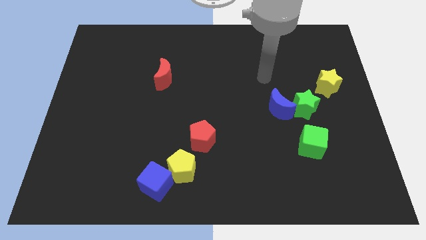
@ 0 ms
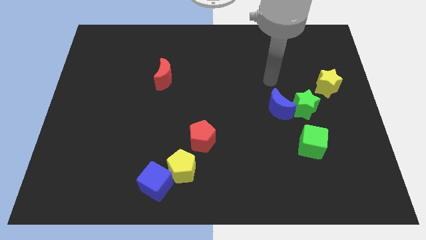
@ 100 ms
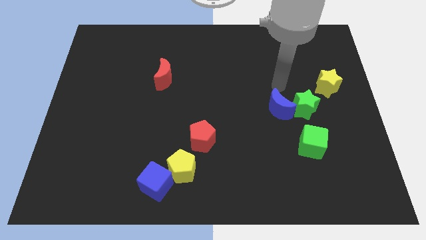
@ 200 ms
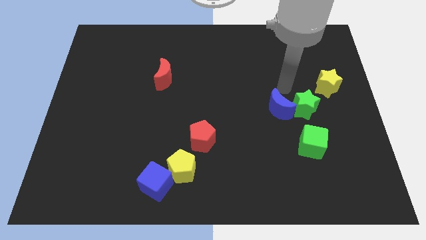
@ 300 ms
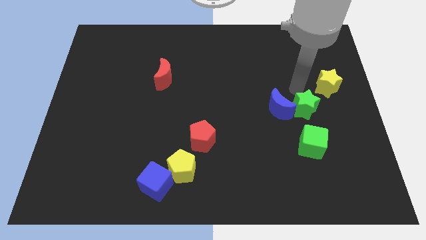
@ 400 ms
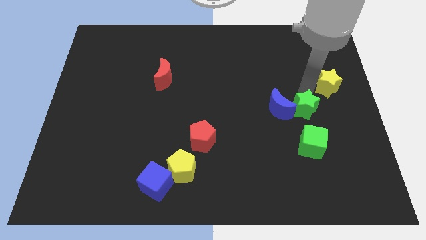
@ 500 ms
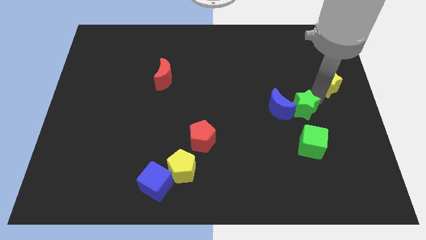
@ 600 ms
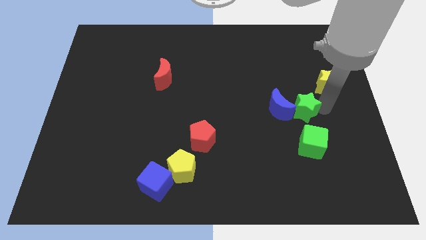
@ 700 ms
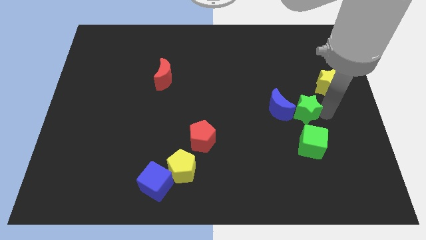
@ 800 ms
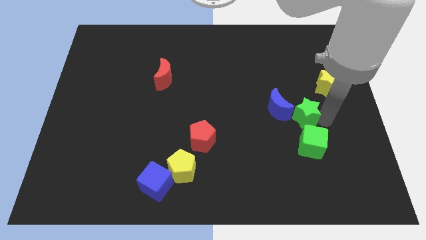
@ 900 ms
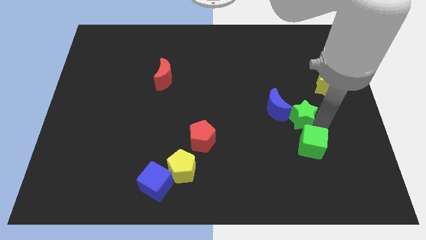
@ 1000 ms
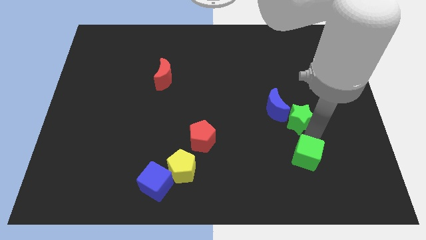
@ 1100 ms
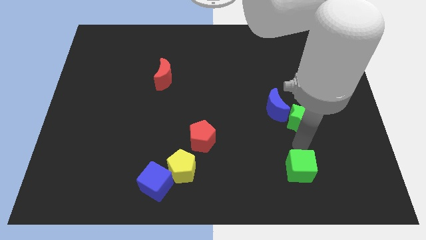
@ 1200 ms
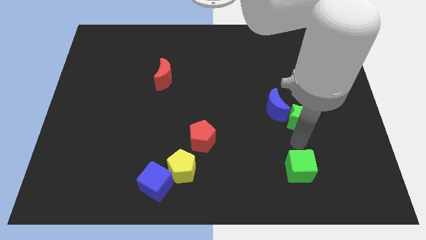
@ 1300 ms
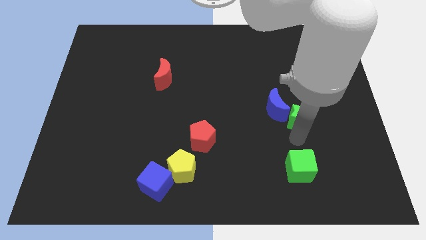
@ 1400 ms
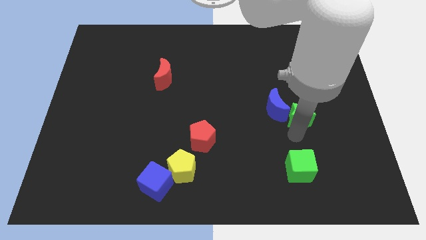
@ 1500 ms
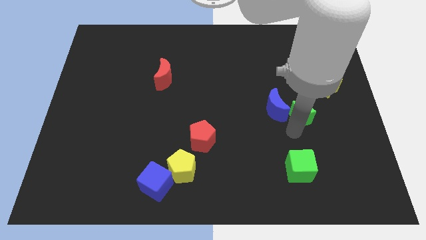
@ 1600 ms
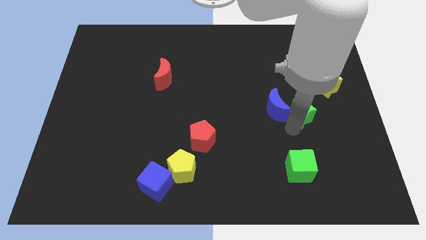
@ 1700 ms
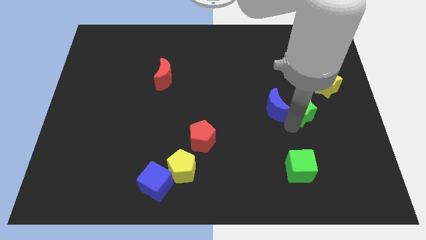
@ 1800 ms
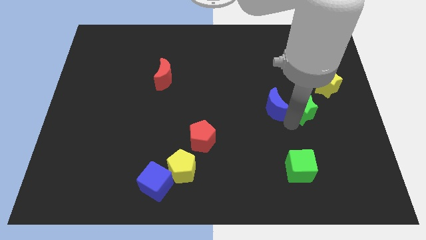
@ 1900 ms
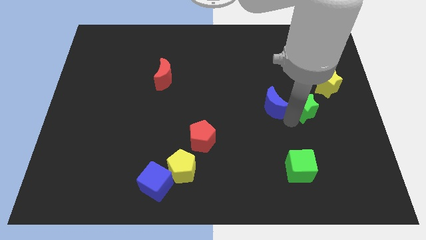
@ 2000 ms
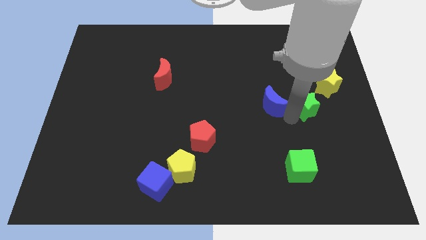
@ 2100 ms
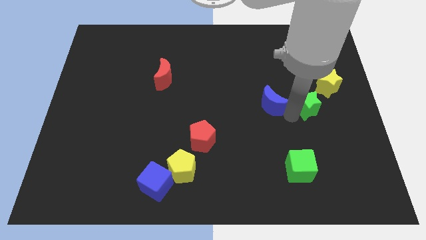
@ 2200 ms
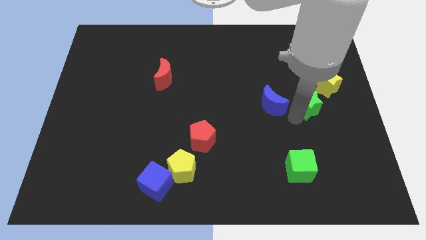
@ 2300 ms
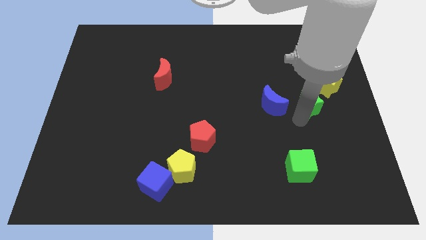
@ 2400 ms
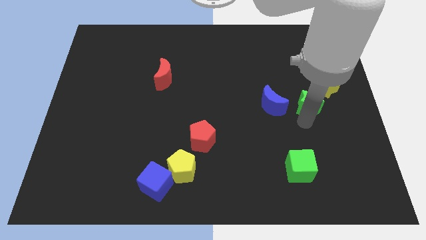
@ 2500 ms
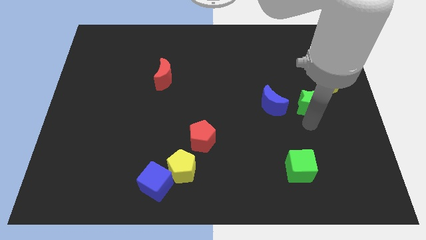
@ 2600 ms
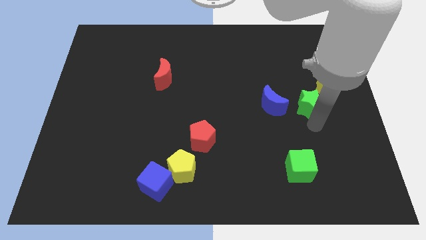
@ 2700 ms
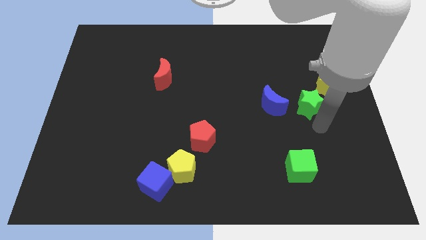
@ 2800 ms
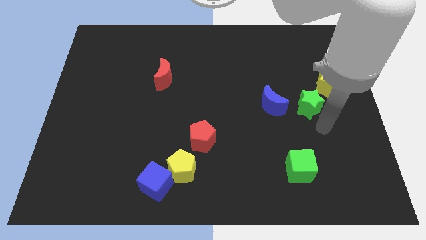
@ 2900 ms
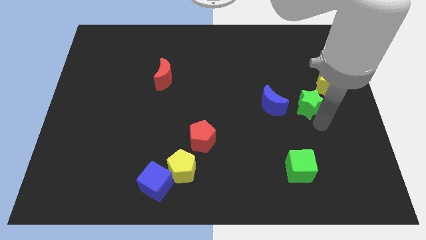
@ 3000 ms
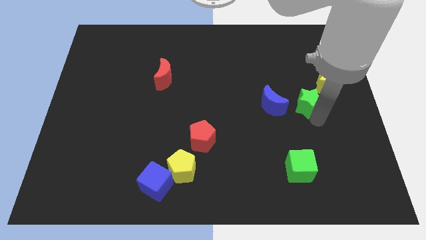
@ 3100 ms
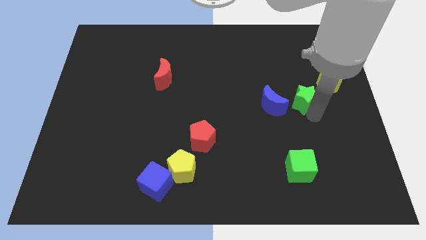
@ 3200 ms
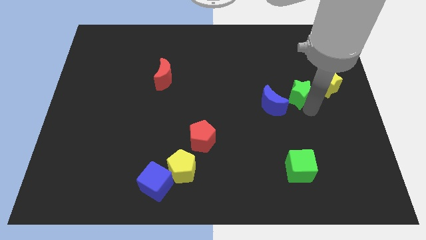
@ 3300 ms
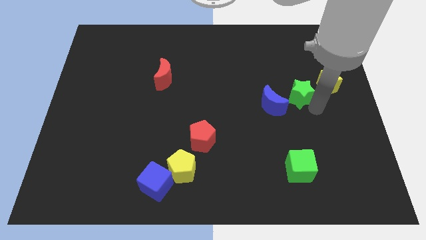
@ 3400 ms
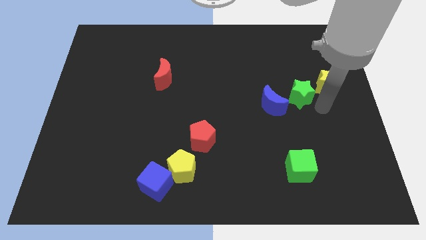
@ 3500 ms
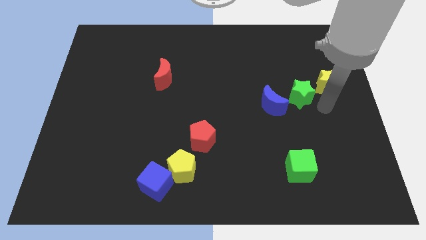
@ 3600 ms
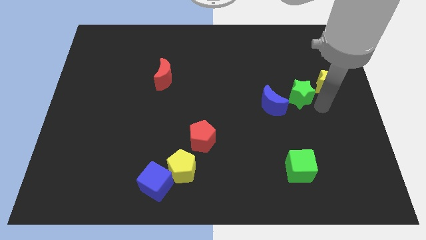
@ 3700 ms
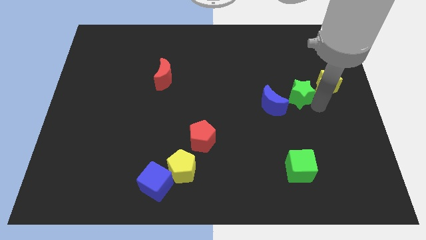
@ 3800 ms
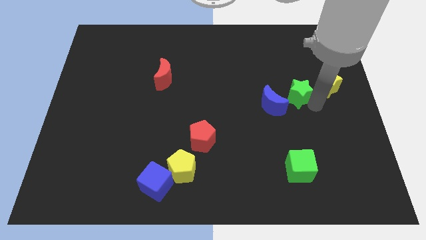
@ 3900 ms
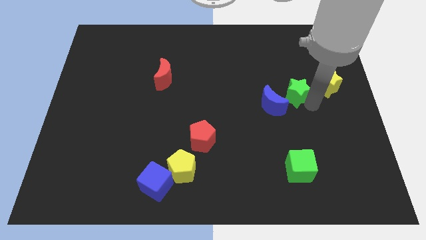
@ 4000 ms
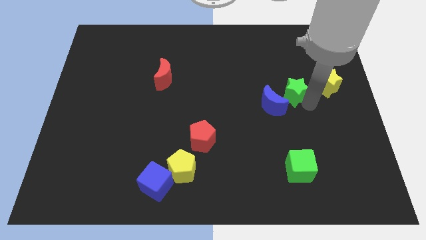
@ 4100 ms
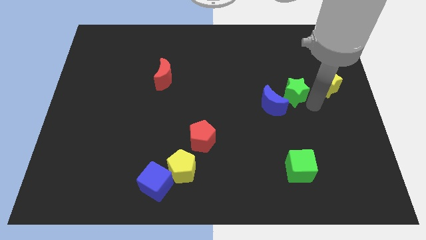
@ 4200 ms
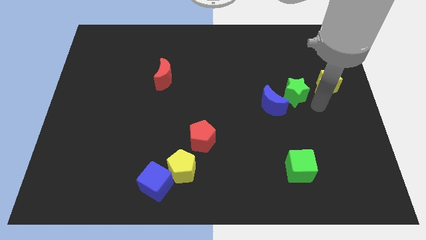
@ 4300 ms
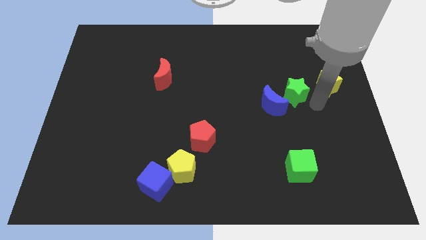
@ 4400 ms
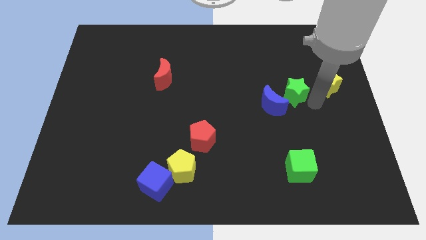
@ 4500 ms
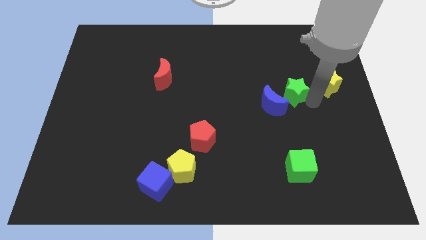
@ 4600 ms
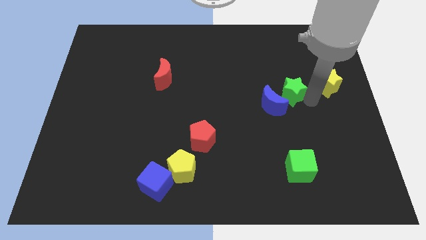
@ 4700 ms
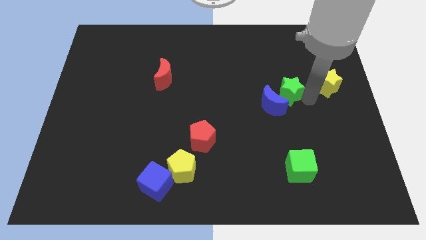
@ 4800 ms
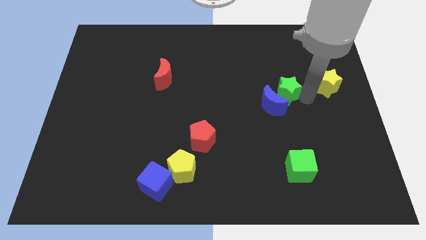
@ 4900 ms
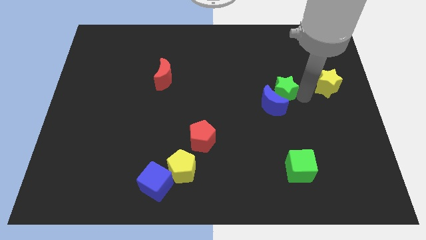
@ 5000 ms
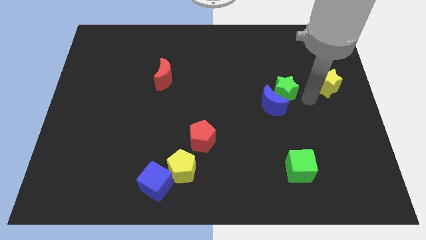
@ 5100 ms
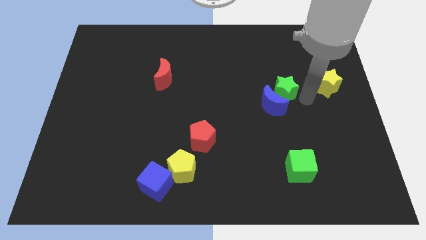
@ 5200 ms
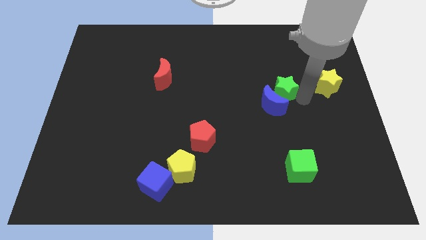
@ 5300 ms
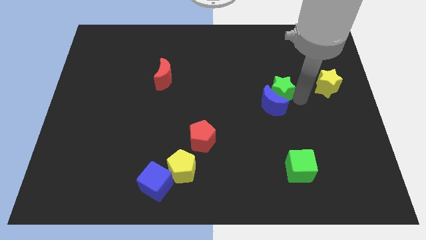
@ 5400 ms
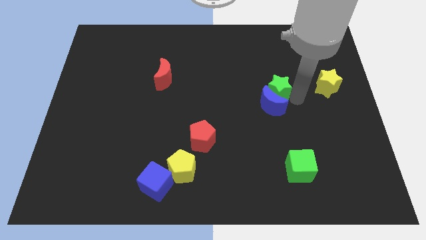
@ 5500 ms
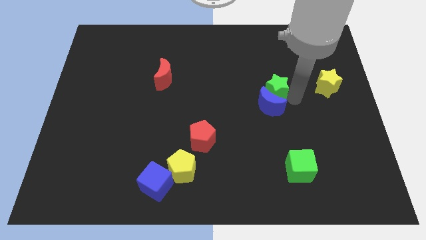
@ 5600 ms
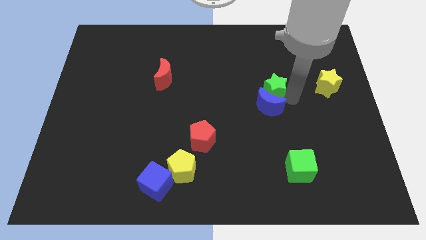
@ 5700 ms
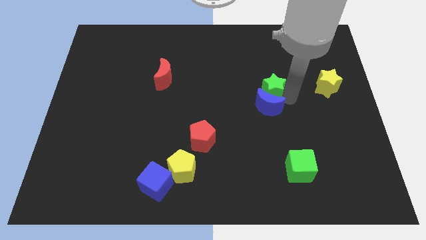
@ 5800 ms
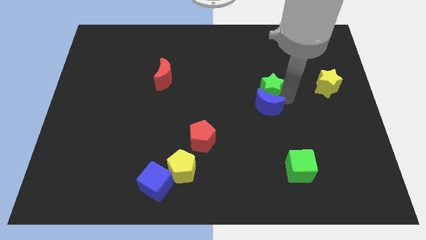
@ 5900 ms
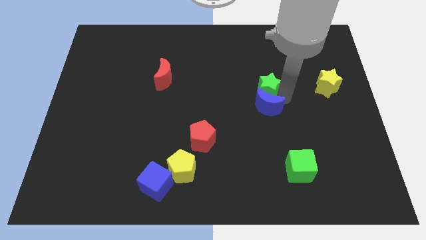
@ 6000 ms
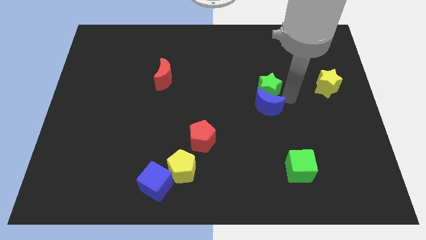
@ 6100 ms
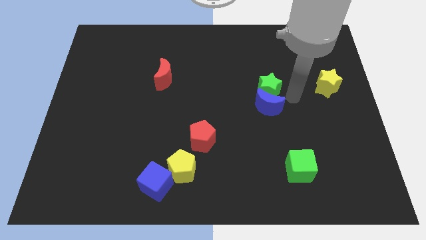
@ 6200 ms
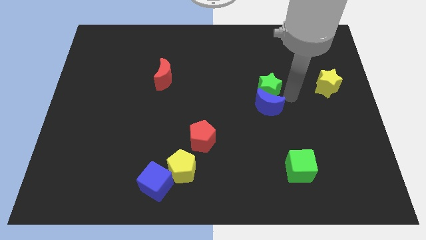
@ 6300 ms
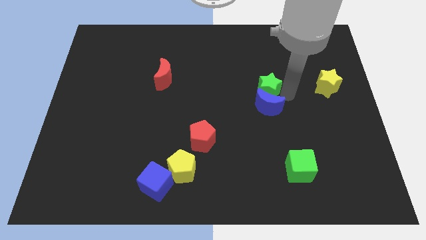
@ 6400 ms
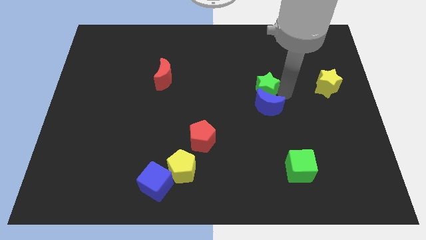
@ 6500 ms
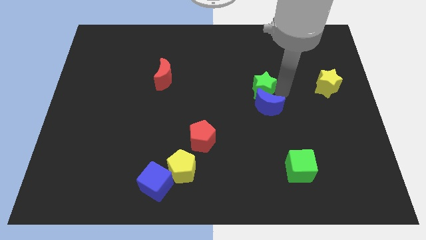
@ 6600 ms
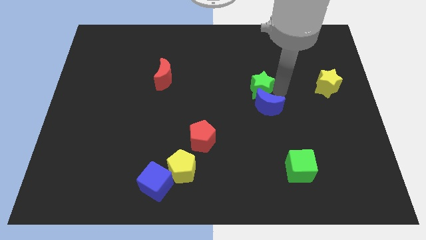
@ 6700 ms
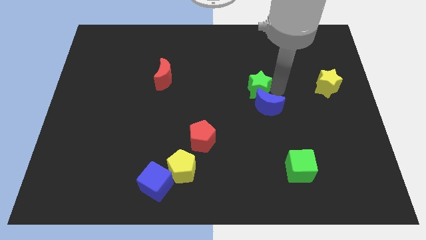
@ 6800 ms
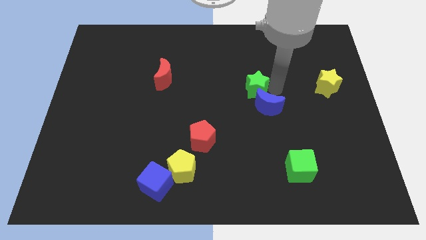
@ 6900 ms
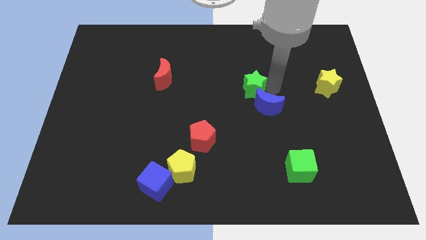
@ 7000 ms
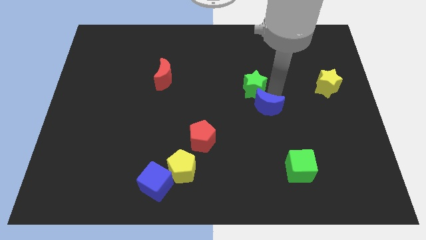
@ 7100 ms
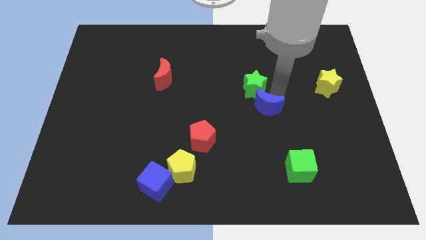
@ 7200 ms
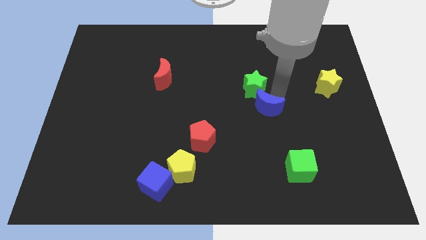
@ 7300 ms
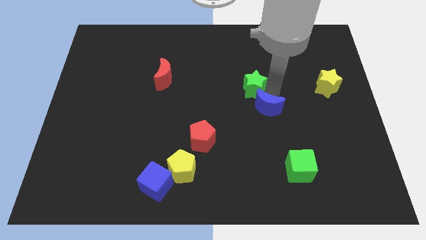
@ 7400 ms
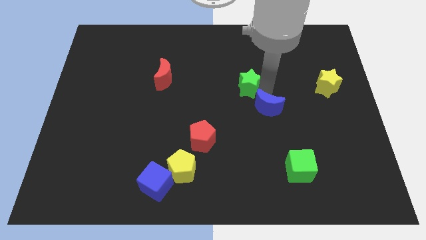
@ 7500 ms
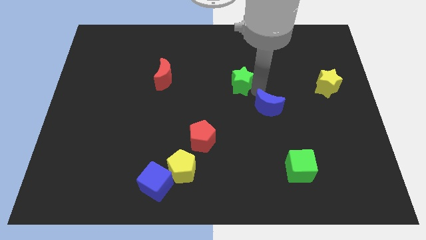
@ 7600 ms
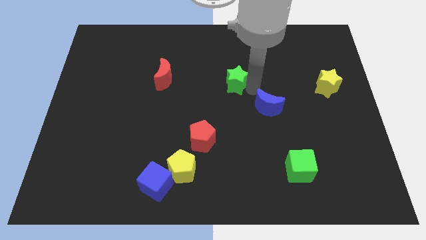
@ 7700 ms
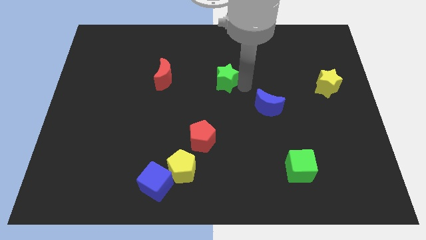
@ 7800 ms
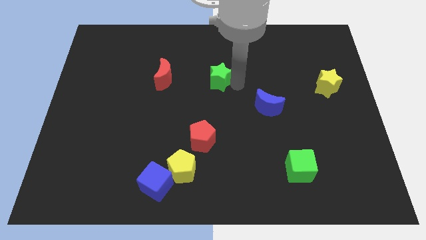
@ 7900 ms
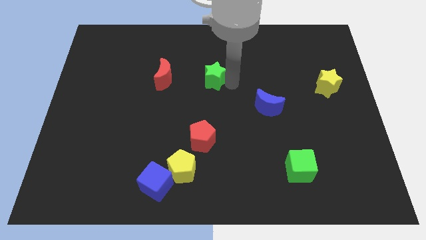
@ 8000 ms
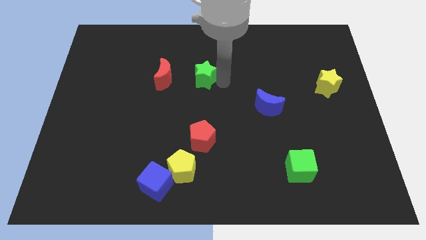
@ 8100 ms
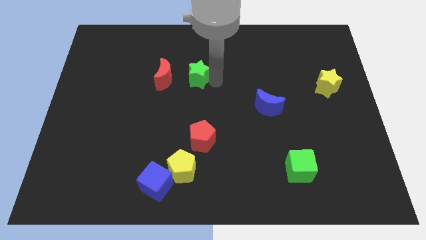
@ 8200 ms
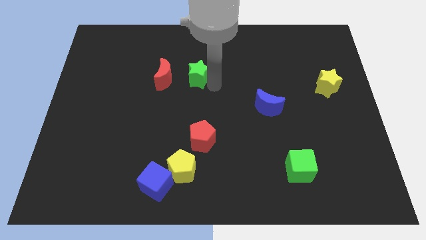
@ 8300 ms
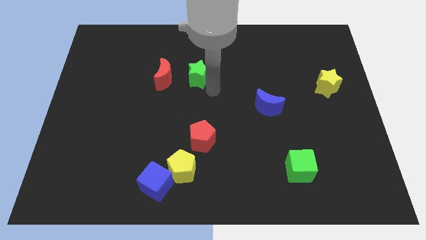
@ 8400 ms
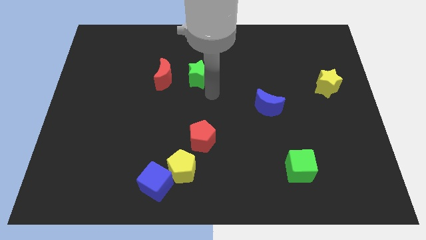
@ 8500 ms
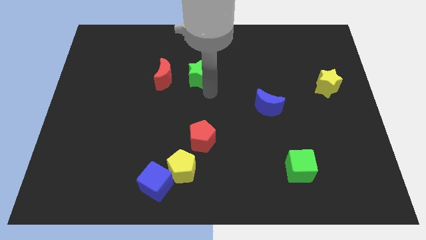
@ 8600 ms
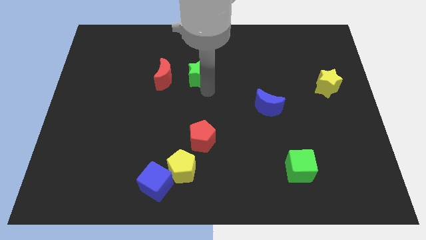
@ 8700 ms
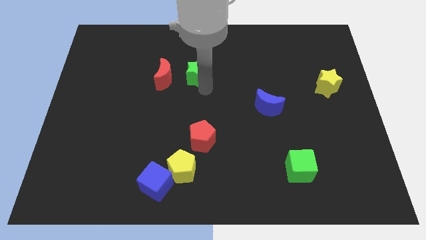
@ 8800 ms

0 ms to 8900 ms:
push the green star to the top right side of the red moon
